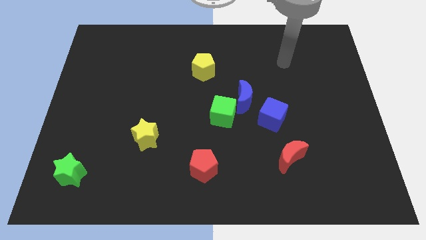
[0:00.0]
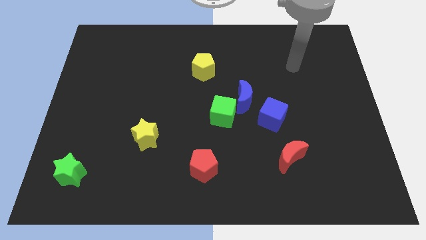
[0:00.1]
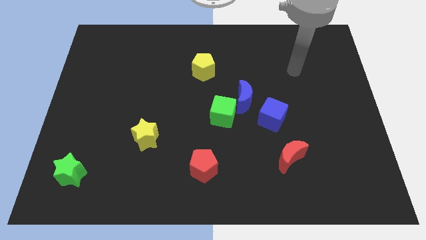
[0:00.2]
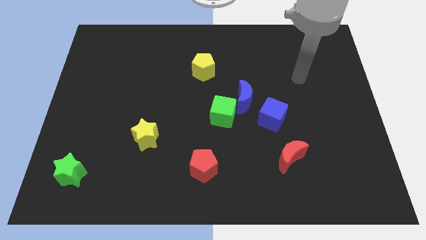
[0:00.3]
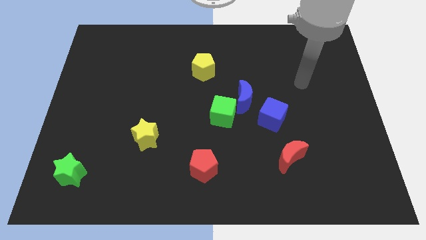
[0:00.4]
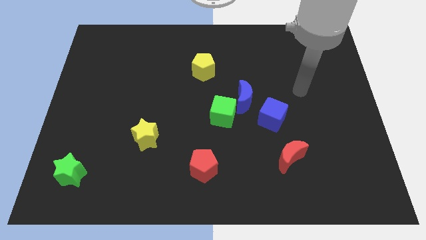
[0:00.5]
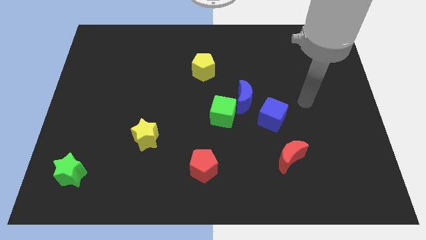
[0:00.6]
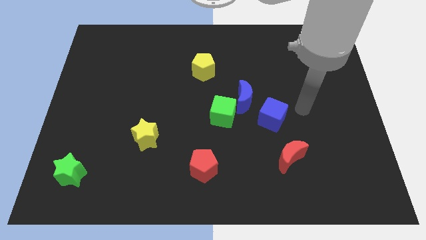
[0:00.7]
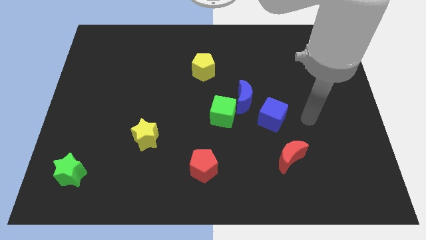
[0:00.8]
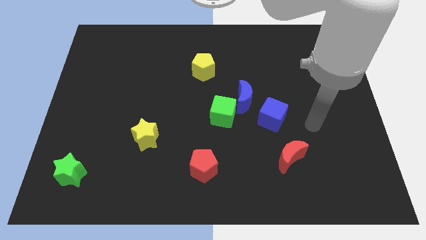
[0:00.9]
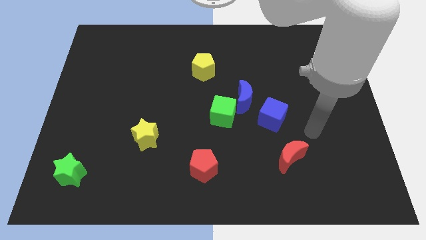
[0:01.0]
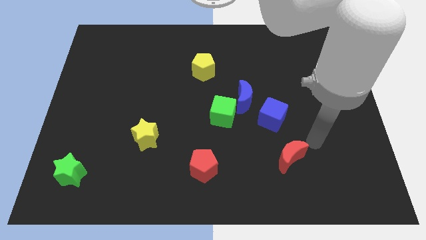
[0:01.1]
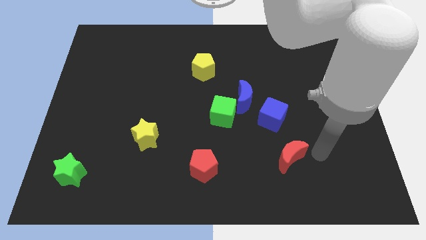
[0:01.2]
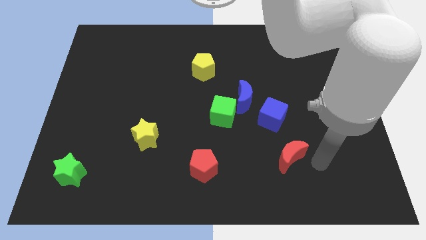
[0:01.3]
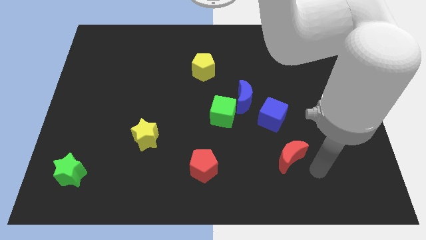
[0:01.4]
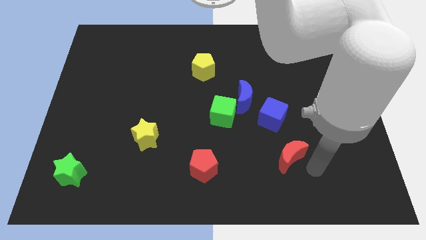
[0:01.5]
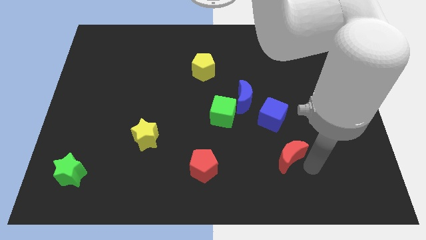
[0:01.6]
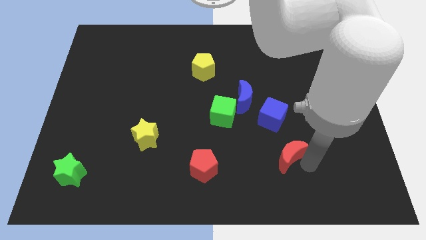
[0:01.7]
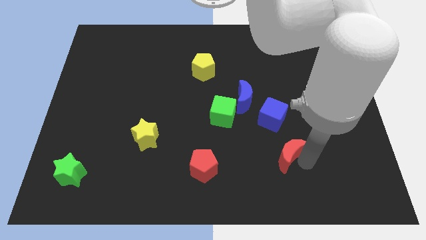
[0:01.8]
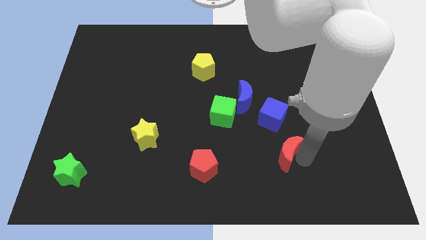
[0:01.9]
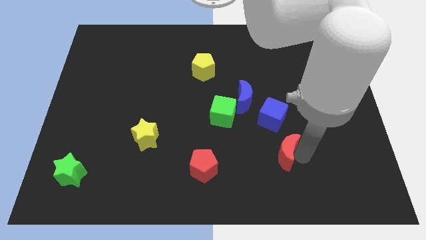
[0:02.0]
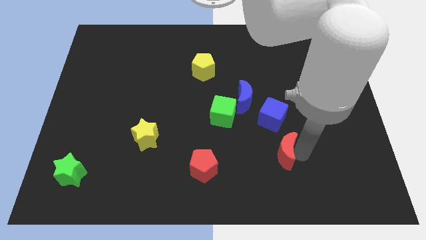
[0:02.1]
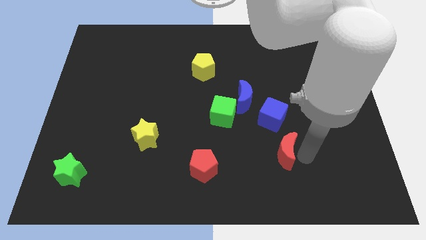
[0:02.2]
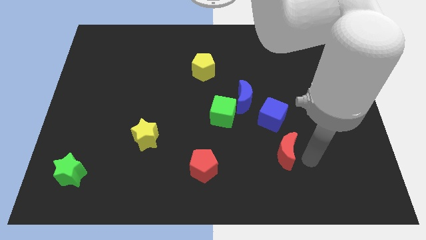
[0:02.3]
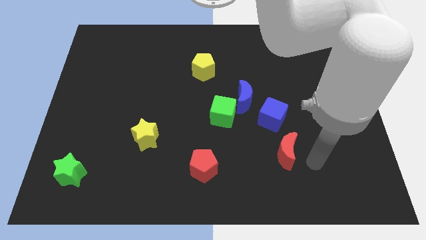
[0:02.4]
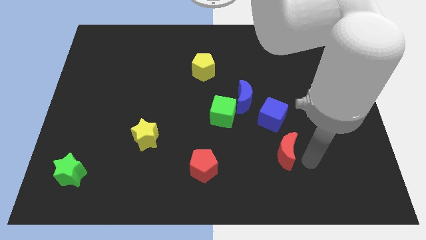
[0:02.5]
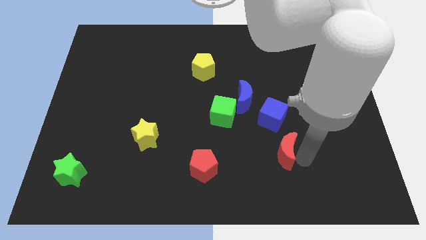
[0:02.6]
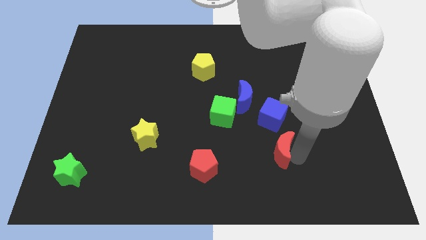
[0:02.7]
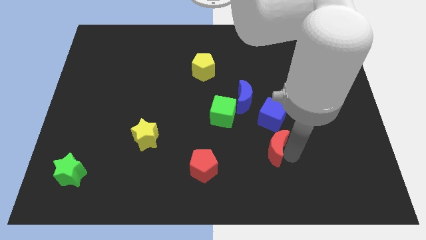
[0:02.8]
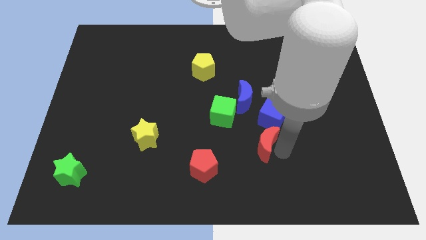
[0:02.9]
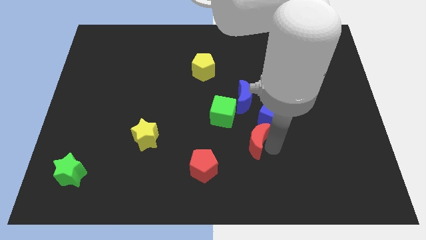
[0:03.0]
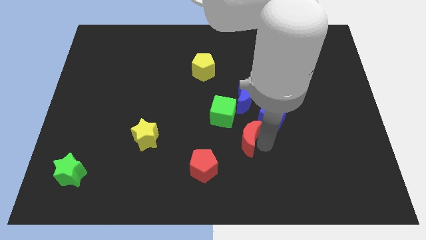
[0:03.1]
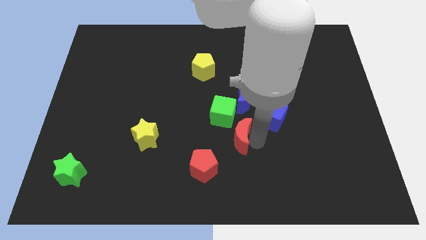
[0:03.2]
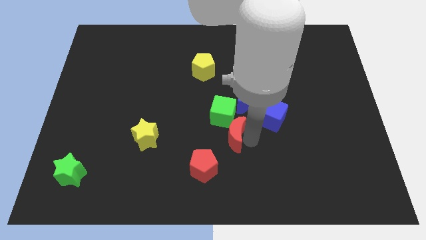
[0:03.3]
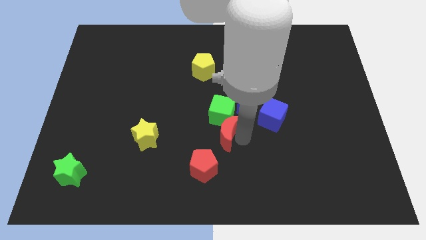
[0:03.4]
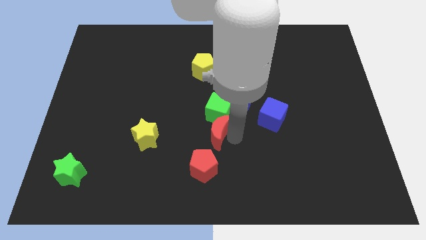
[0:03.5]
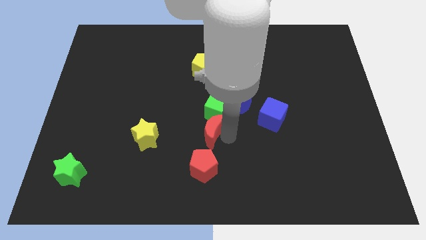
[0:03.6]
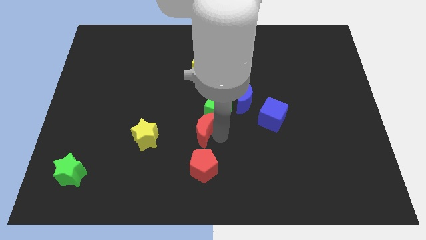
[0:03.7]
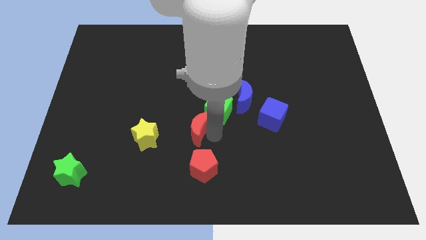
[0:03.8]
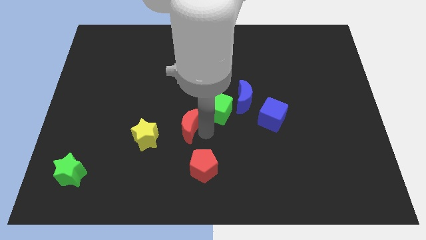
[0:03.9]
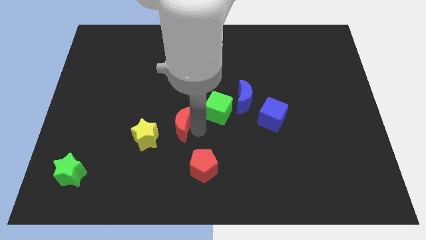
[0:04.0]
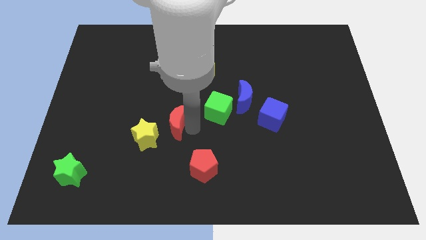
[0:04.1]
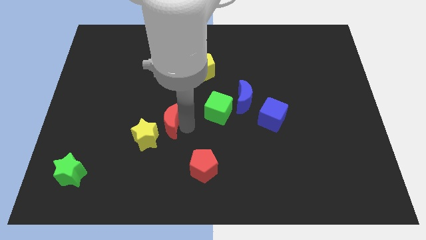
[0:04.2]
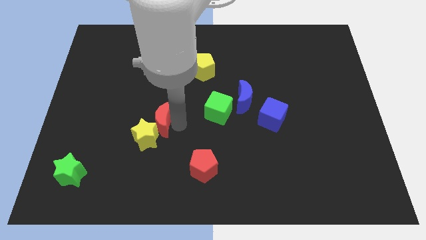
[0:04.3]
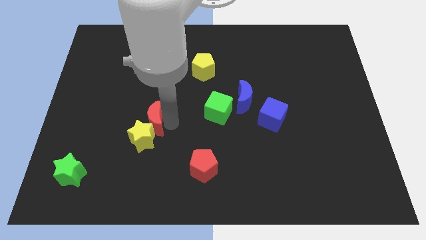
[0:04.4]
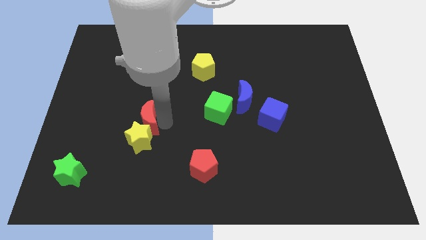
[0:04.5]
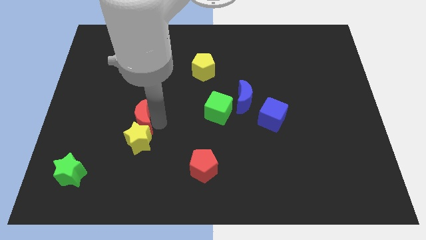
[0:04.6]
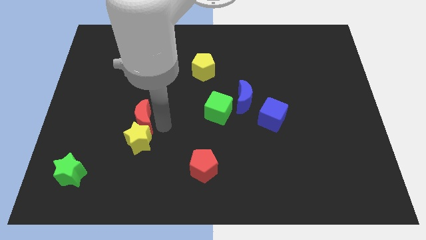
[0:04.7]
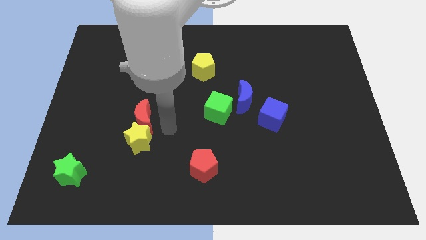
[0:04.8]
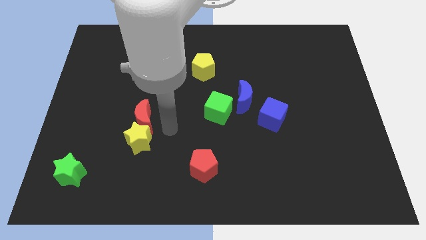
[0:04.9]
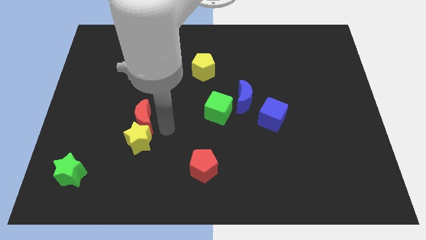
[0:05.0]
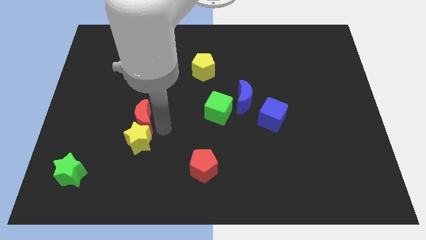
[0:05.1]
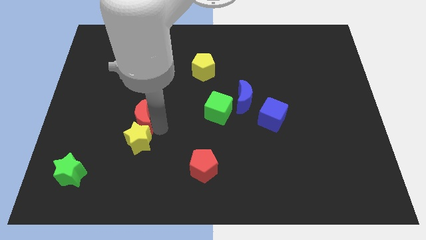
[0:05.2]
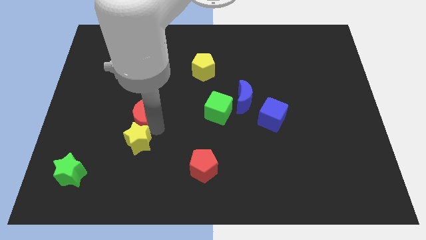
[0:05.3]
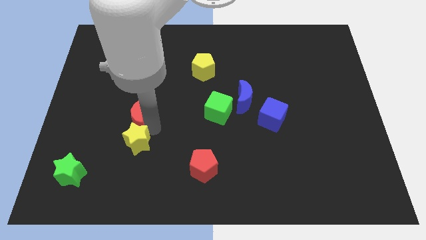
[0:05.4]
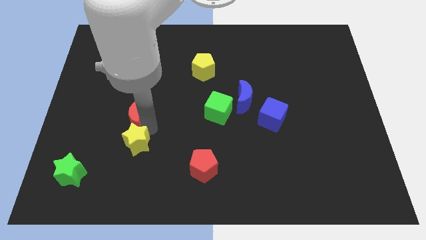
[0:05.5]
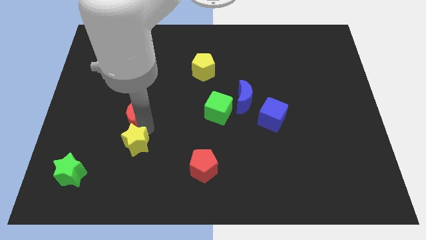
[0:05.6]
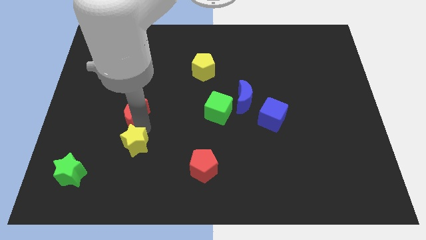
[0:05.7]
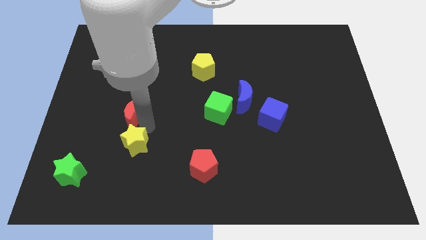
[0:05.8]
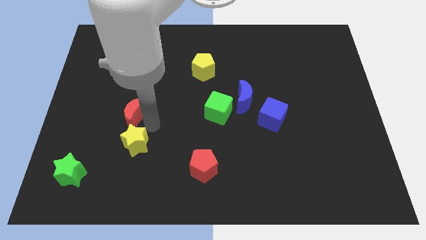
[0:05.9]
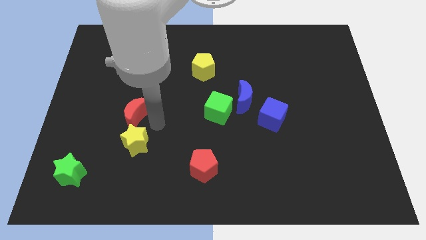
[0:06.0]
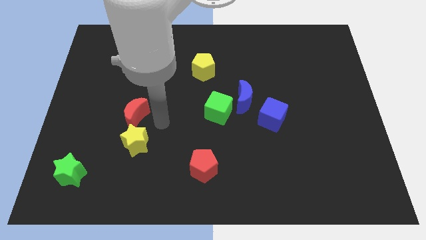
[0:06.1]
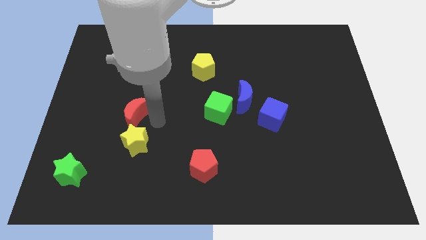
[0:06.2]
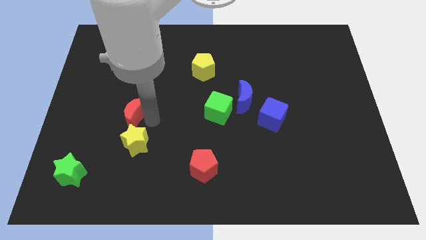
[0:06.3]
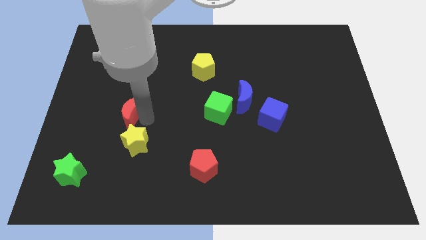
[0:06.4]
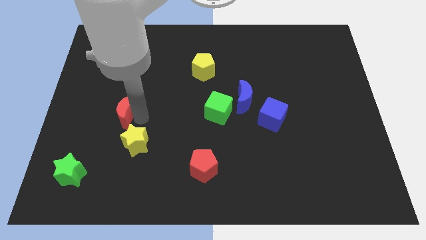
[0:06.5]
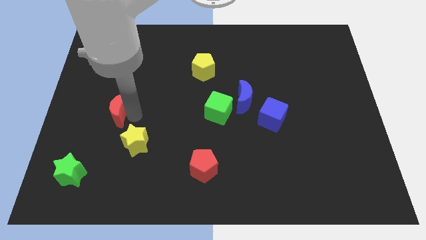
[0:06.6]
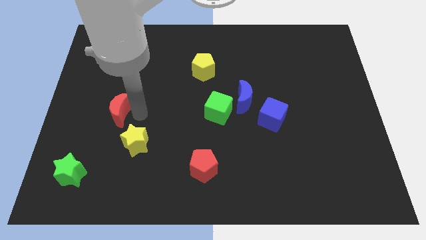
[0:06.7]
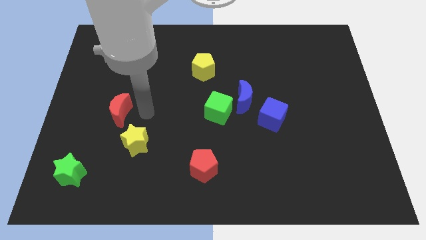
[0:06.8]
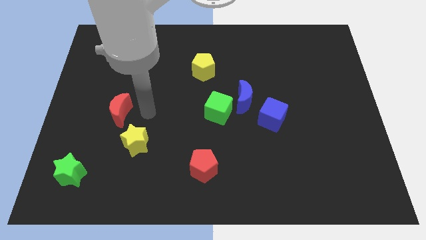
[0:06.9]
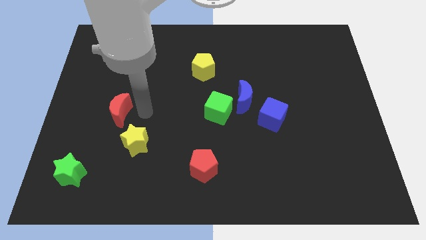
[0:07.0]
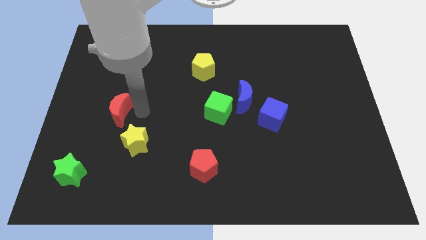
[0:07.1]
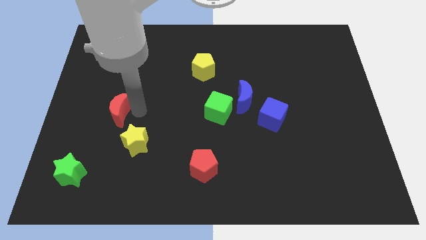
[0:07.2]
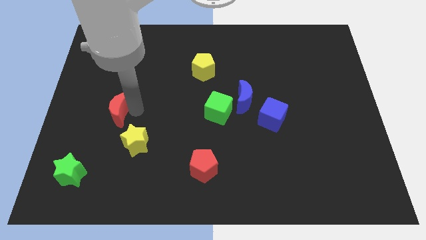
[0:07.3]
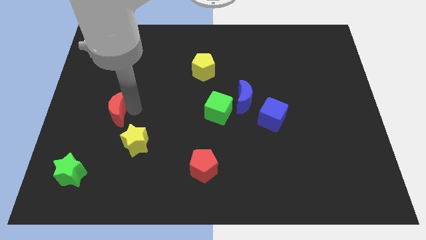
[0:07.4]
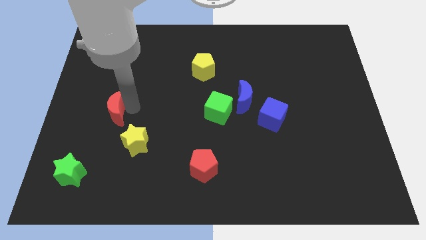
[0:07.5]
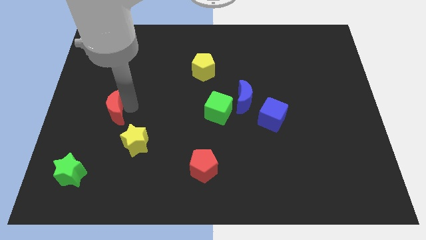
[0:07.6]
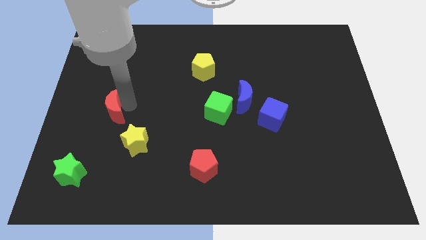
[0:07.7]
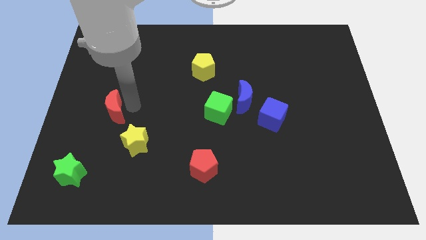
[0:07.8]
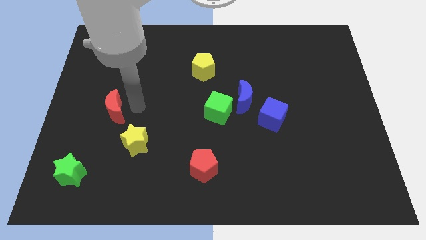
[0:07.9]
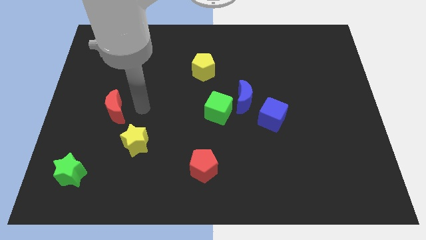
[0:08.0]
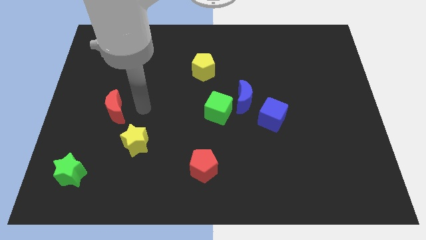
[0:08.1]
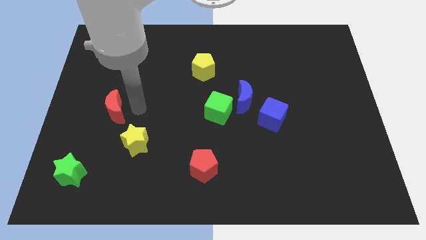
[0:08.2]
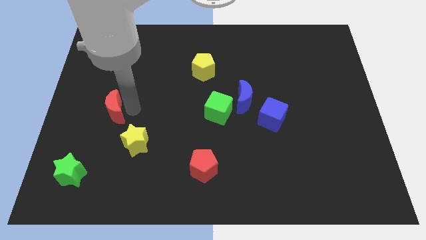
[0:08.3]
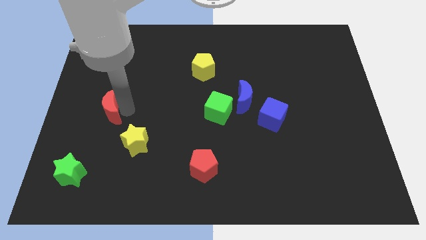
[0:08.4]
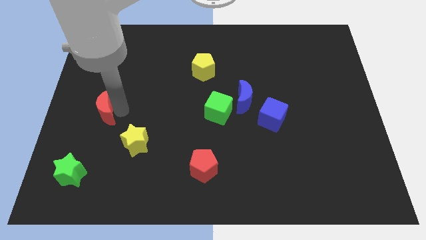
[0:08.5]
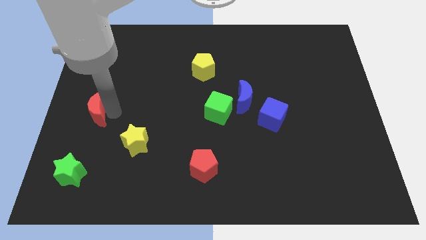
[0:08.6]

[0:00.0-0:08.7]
push the red moon to the left side of the board
